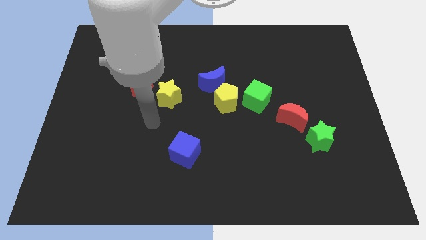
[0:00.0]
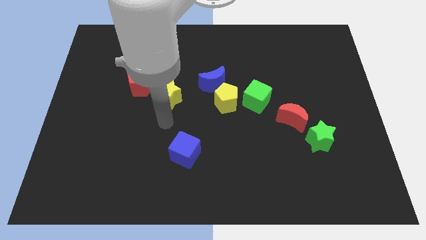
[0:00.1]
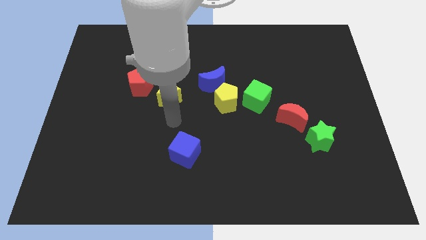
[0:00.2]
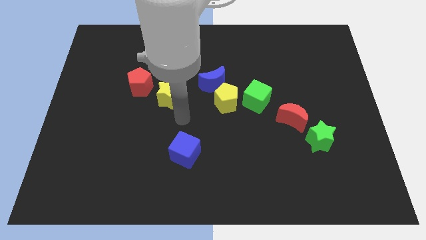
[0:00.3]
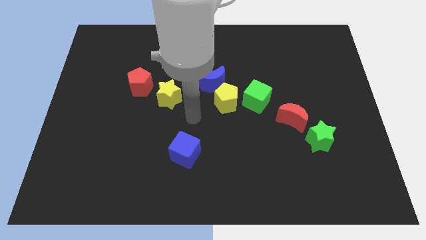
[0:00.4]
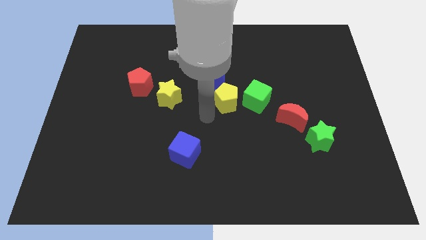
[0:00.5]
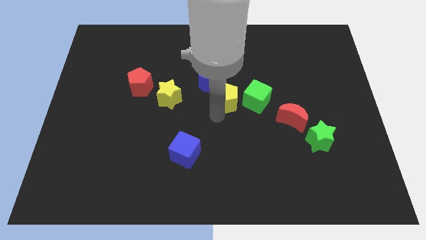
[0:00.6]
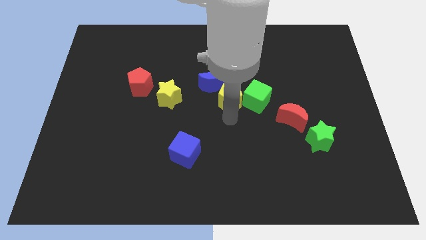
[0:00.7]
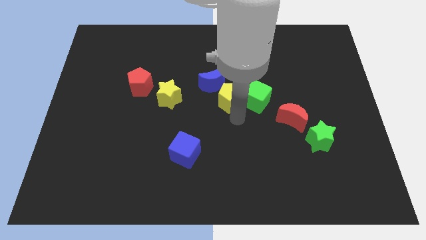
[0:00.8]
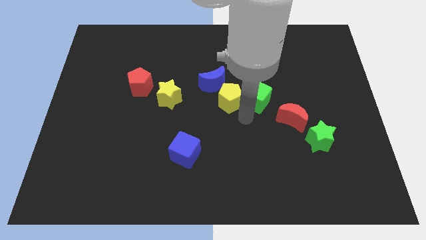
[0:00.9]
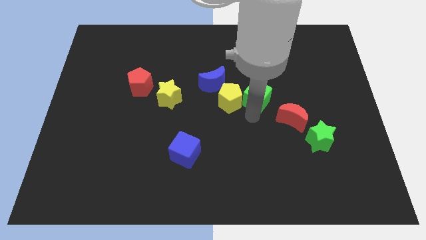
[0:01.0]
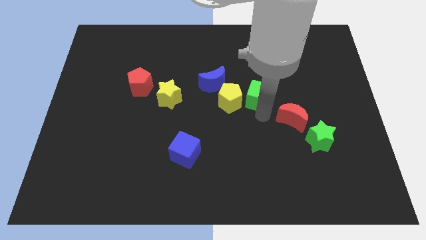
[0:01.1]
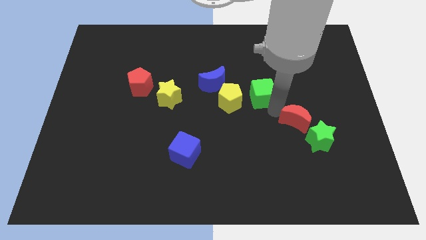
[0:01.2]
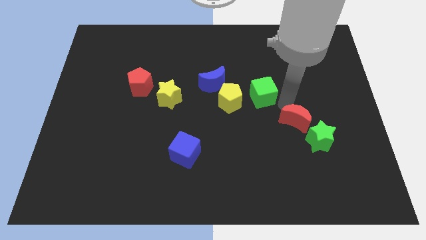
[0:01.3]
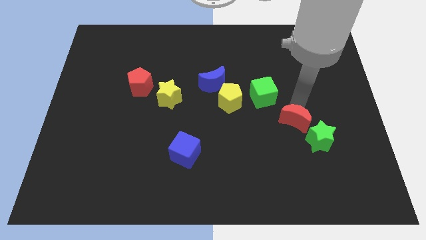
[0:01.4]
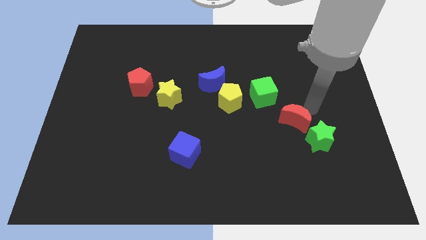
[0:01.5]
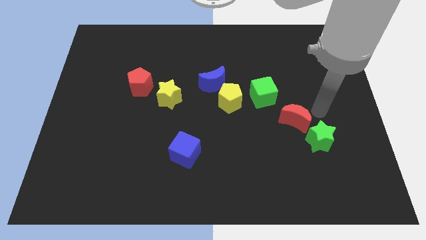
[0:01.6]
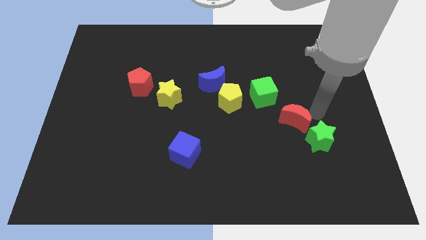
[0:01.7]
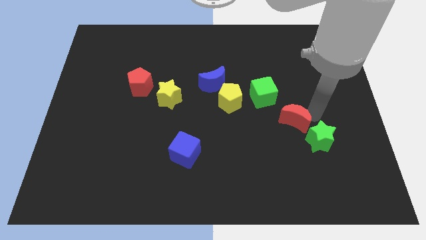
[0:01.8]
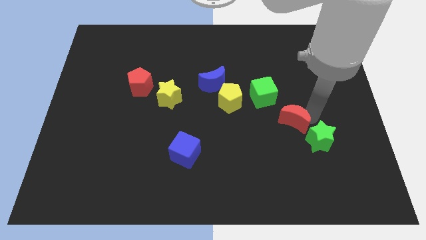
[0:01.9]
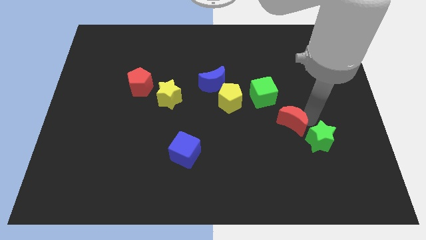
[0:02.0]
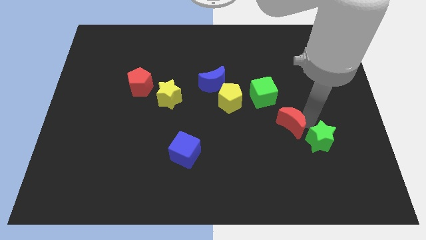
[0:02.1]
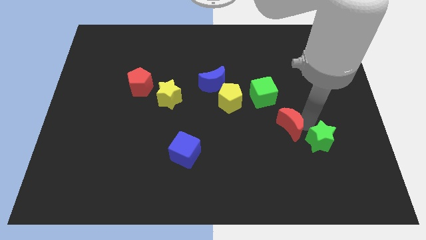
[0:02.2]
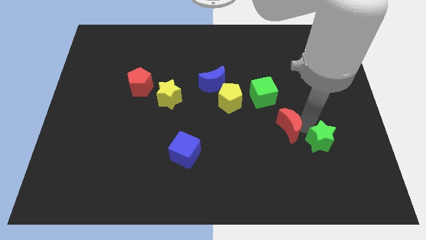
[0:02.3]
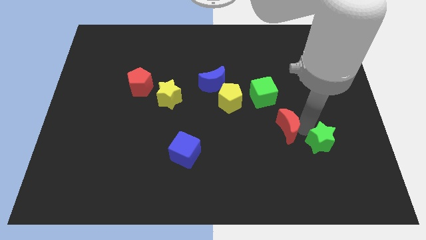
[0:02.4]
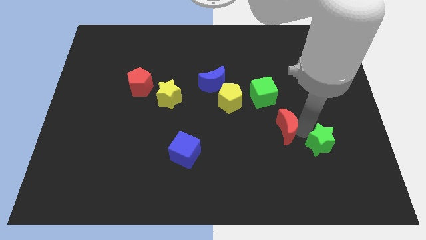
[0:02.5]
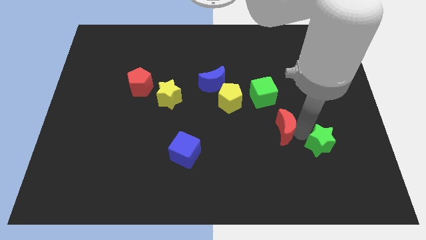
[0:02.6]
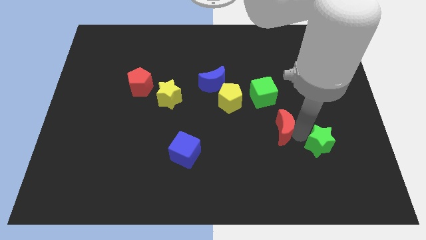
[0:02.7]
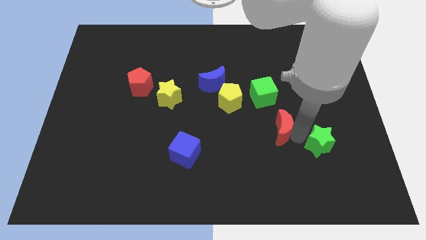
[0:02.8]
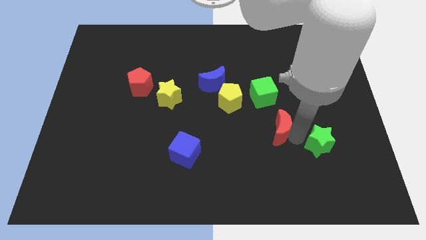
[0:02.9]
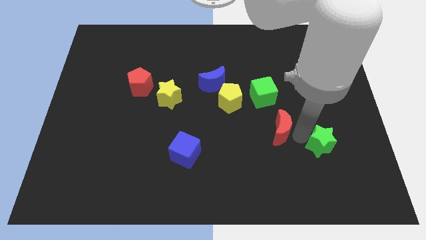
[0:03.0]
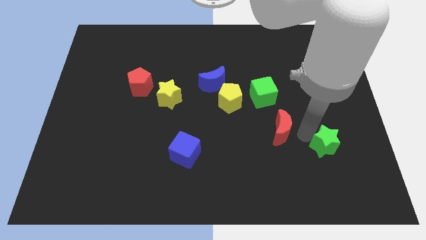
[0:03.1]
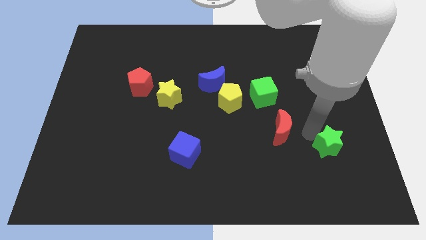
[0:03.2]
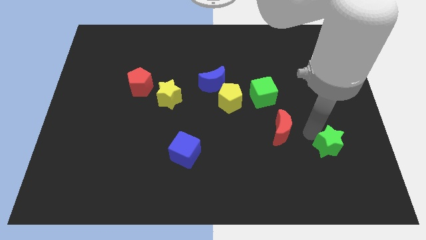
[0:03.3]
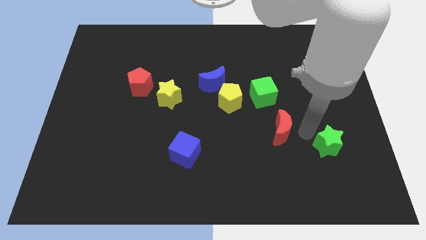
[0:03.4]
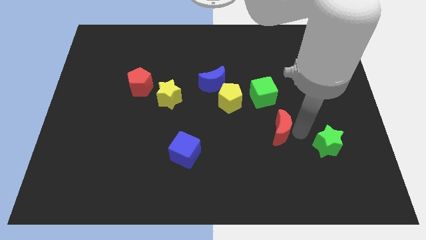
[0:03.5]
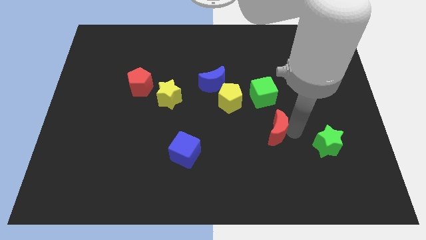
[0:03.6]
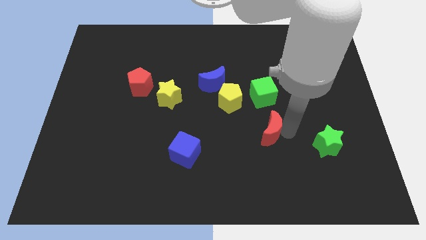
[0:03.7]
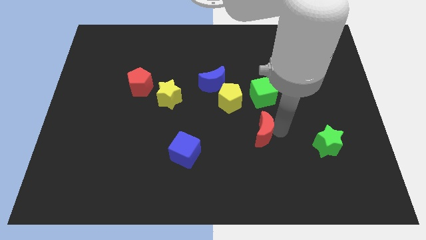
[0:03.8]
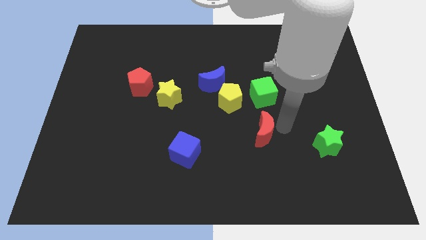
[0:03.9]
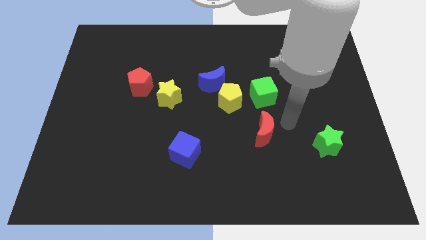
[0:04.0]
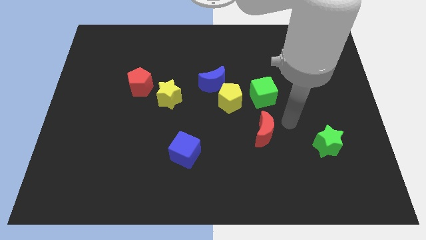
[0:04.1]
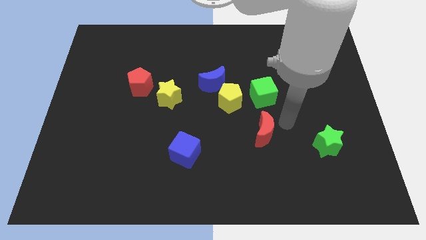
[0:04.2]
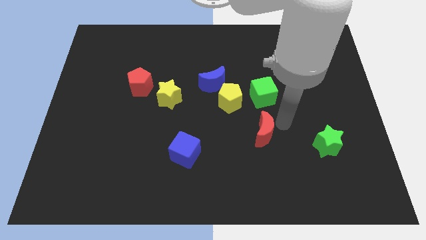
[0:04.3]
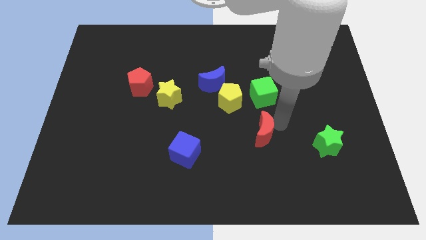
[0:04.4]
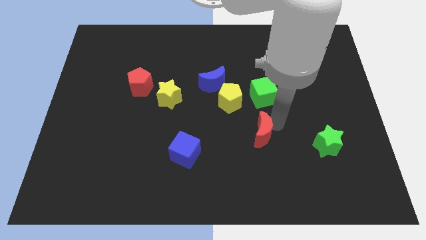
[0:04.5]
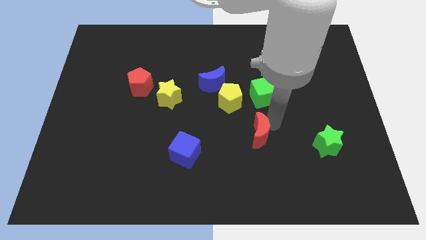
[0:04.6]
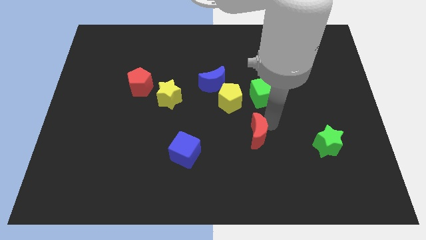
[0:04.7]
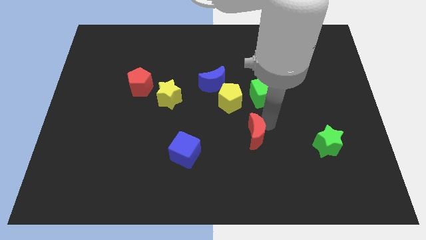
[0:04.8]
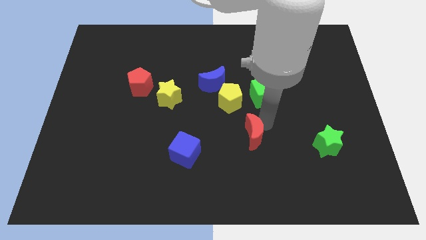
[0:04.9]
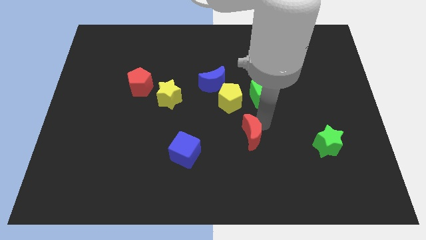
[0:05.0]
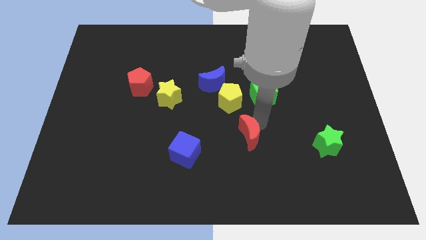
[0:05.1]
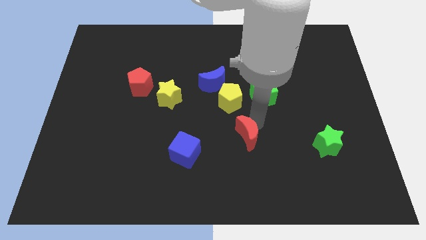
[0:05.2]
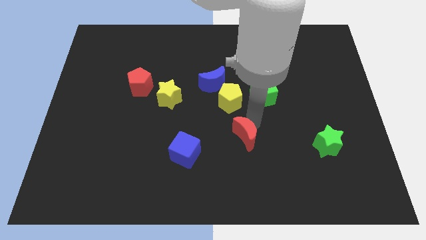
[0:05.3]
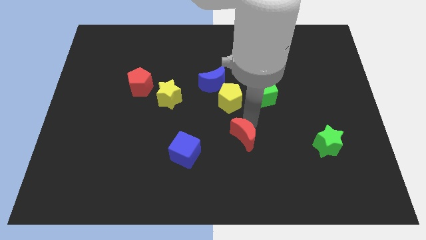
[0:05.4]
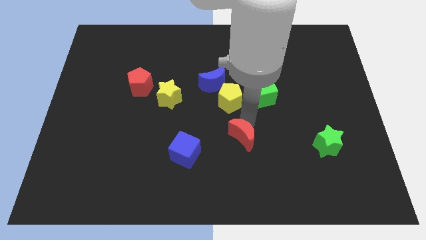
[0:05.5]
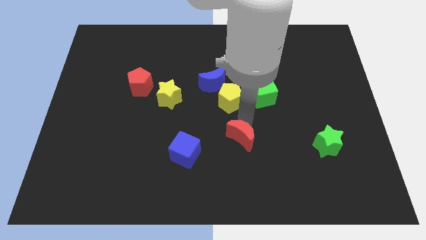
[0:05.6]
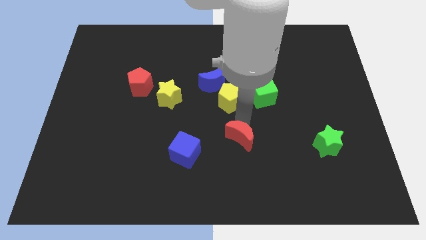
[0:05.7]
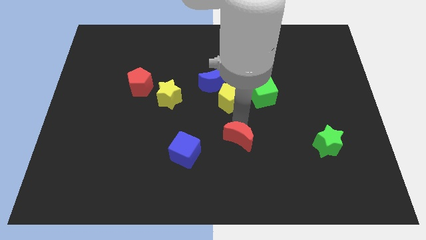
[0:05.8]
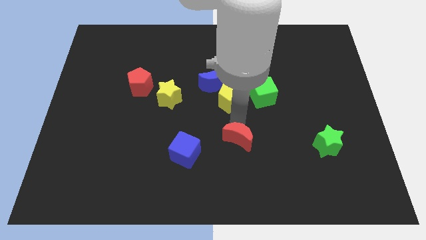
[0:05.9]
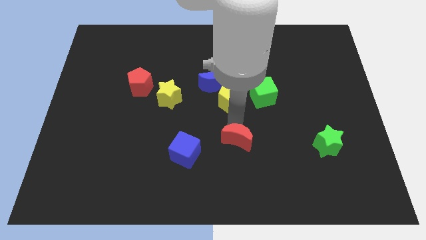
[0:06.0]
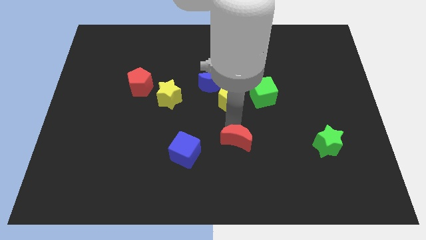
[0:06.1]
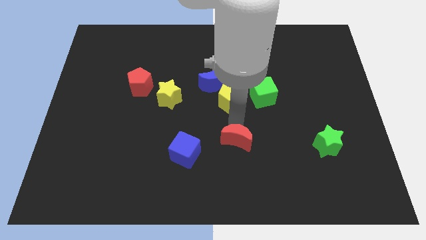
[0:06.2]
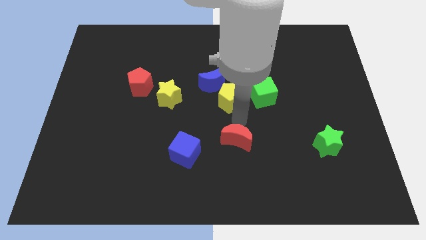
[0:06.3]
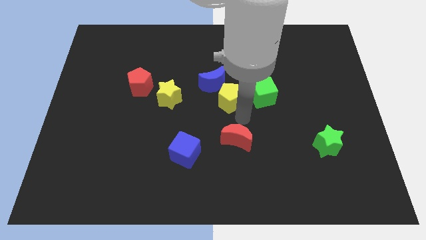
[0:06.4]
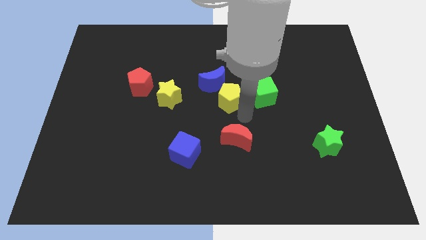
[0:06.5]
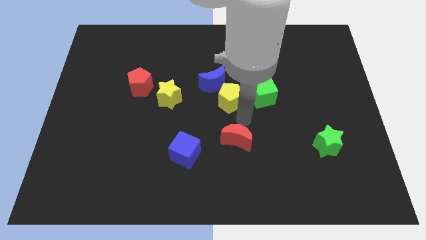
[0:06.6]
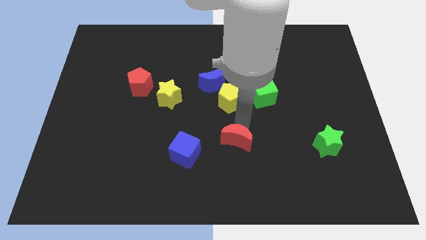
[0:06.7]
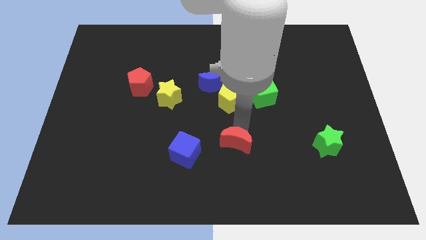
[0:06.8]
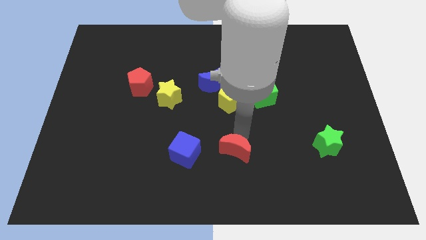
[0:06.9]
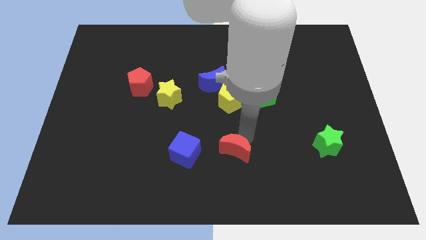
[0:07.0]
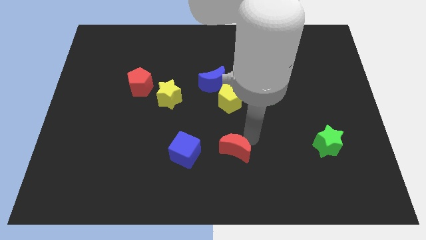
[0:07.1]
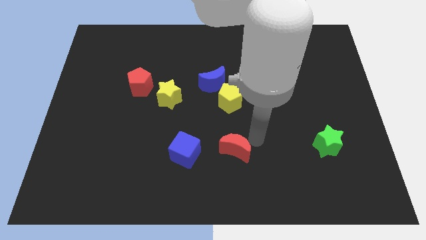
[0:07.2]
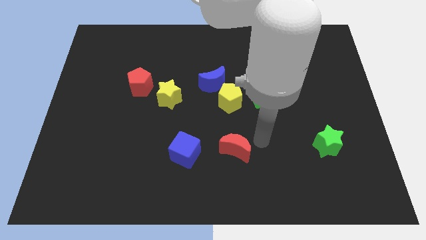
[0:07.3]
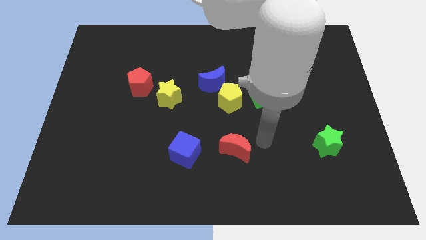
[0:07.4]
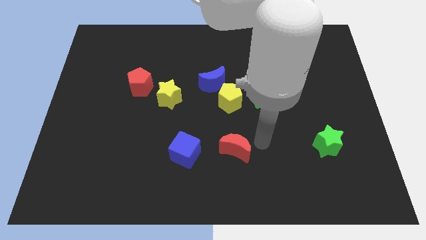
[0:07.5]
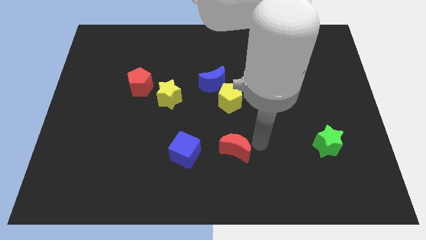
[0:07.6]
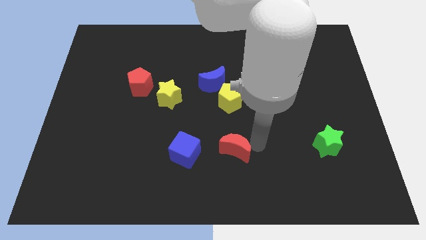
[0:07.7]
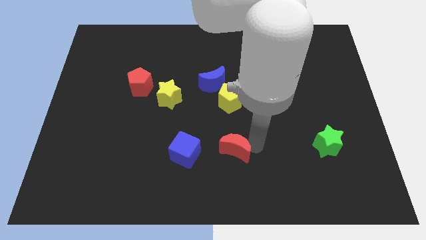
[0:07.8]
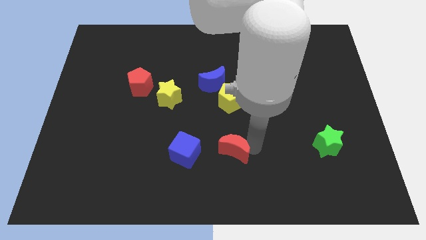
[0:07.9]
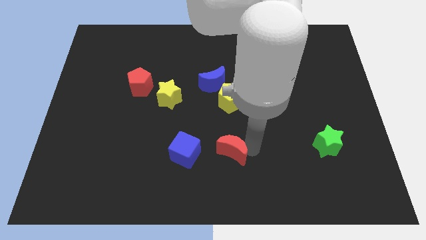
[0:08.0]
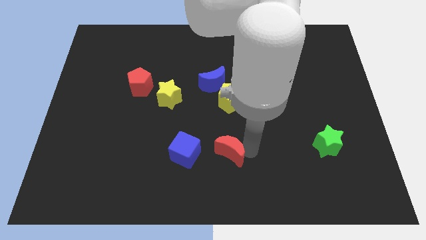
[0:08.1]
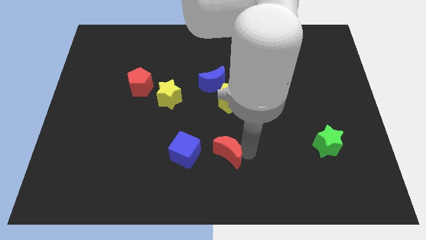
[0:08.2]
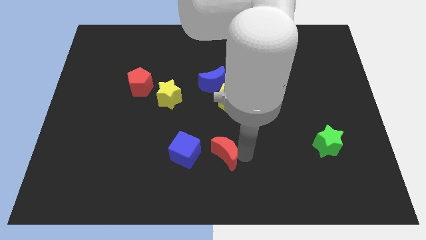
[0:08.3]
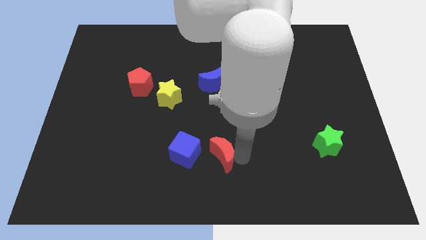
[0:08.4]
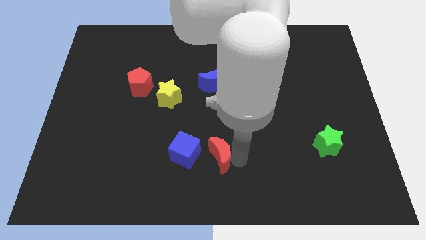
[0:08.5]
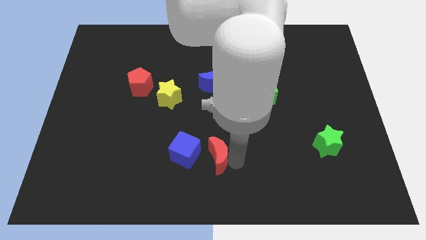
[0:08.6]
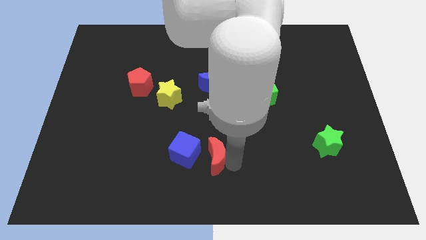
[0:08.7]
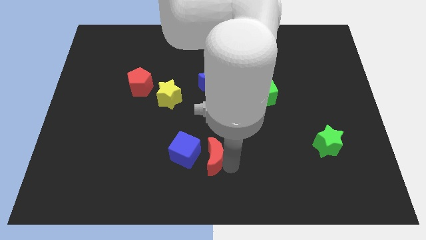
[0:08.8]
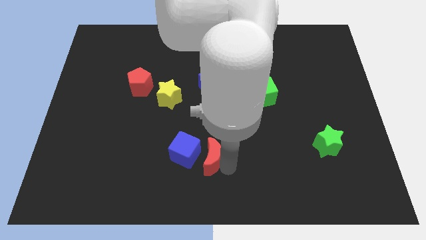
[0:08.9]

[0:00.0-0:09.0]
put the red moon to the blue cube
